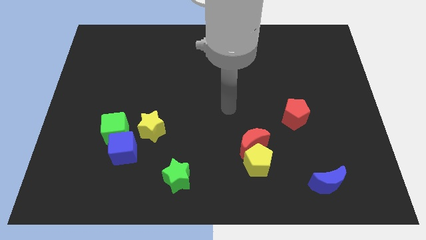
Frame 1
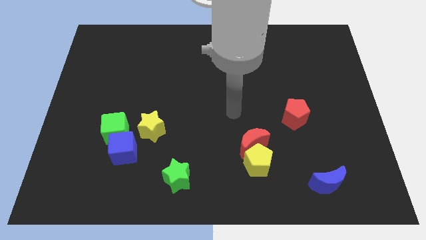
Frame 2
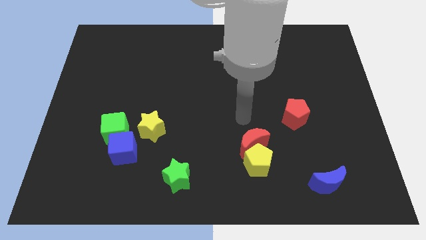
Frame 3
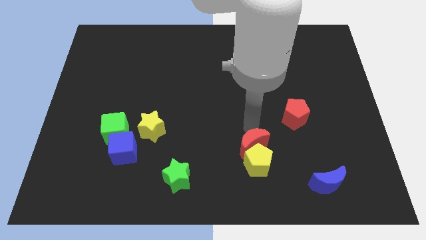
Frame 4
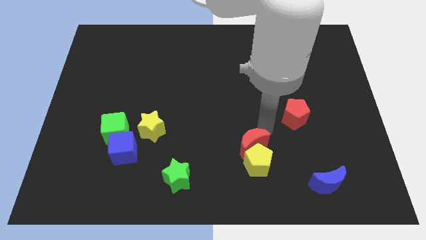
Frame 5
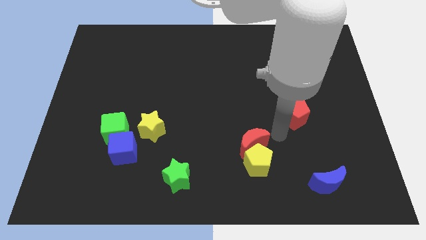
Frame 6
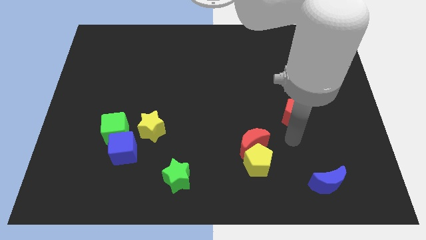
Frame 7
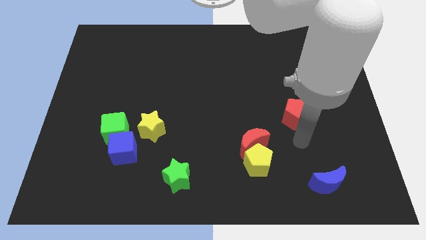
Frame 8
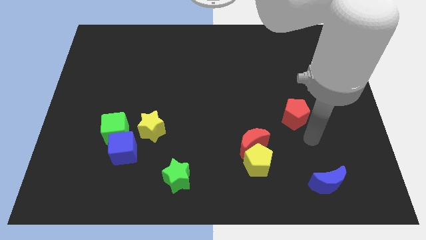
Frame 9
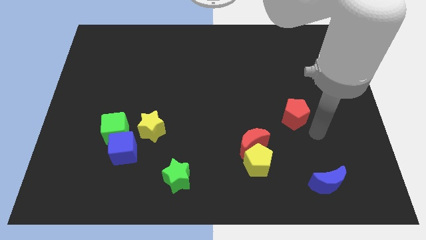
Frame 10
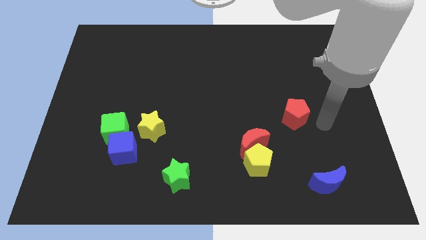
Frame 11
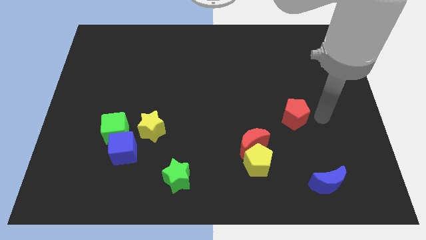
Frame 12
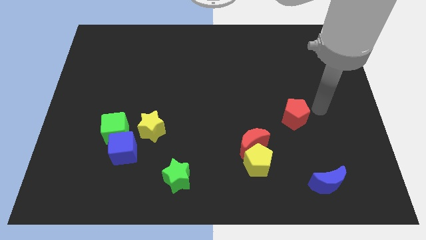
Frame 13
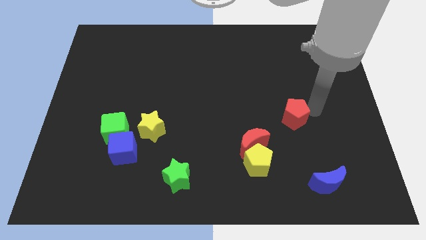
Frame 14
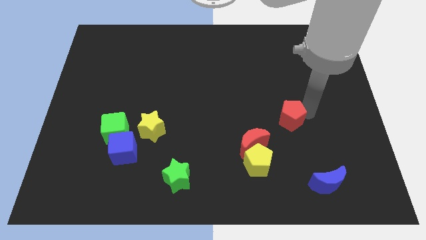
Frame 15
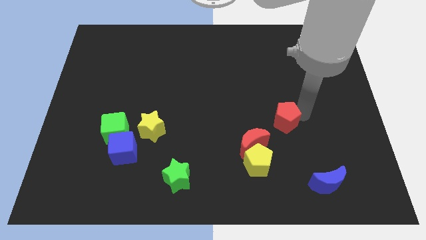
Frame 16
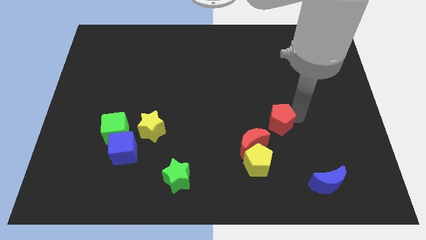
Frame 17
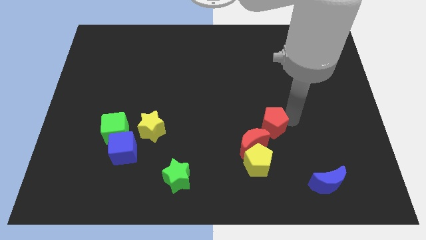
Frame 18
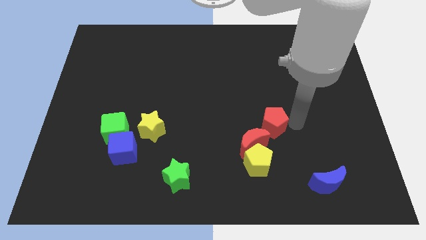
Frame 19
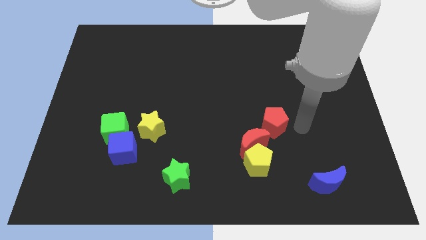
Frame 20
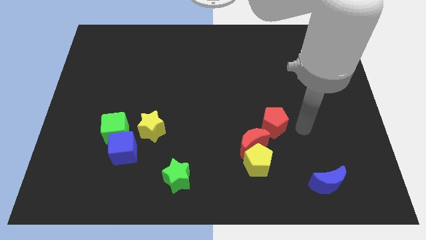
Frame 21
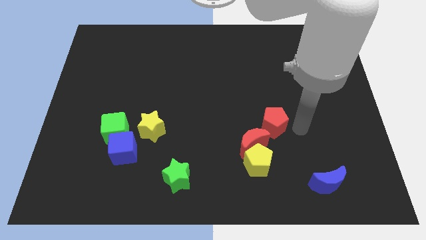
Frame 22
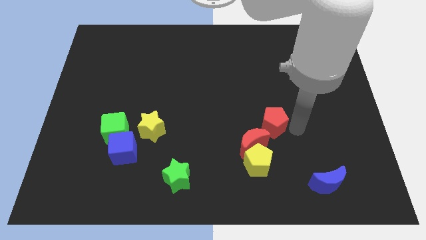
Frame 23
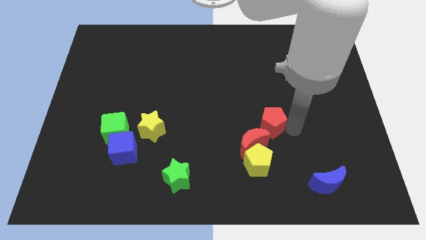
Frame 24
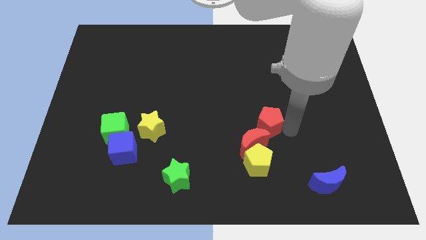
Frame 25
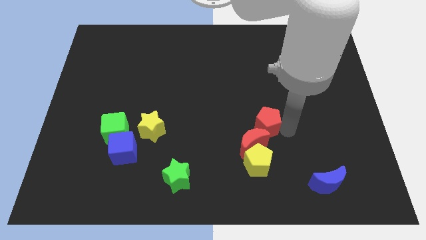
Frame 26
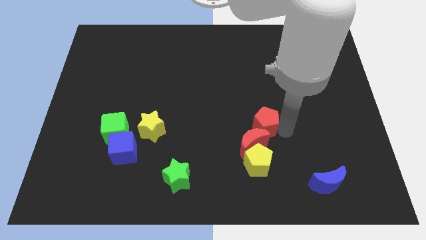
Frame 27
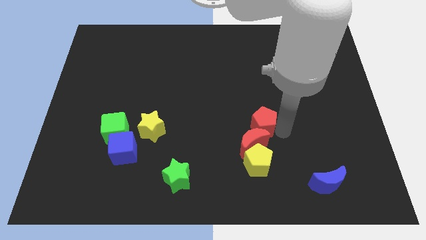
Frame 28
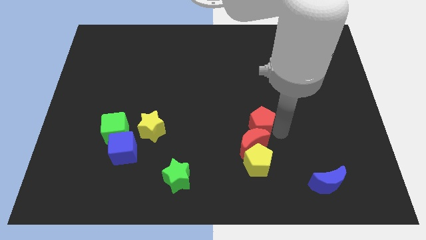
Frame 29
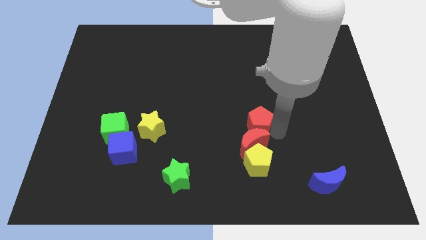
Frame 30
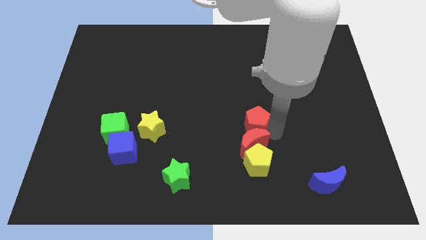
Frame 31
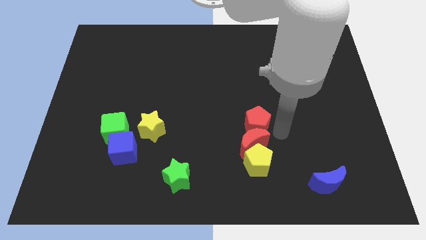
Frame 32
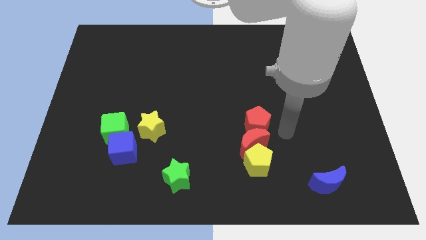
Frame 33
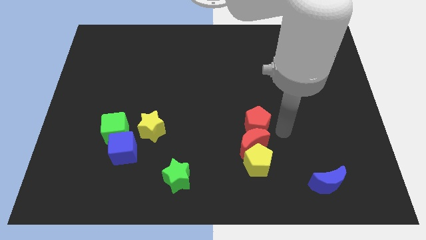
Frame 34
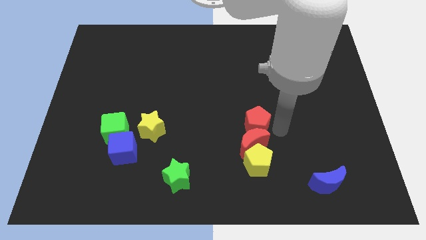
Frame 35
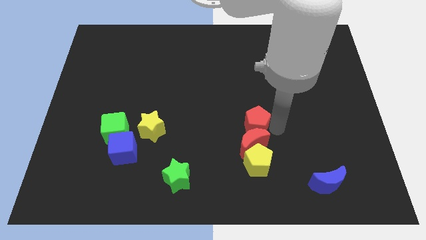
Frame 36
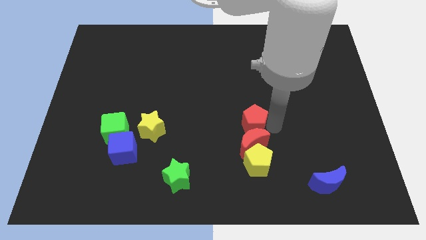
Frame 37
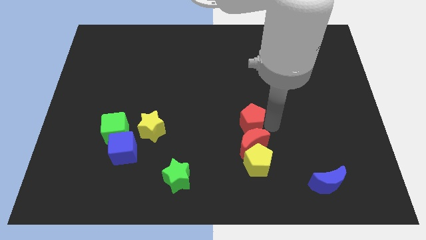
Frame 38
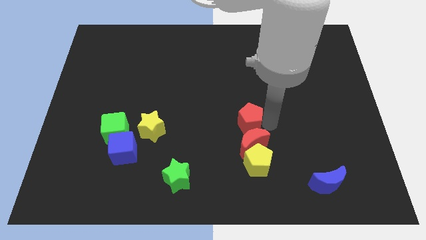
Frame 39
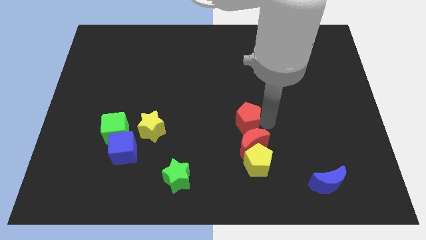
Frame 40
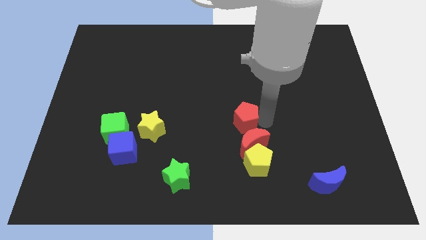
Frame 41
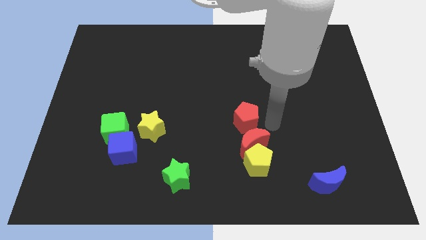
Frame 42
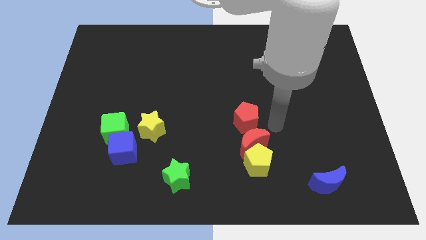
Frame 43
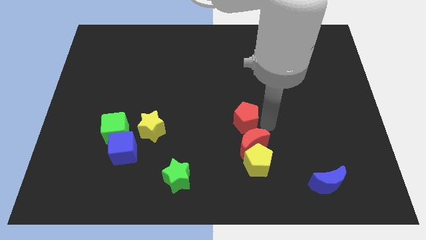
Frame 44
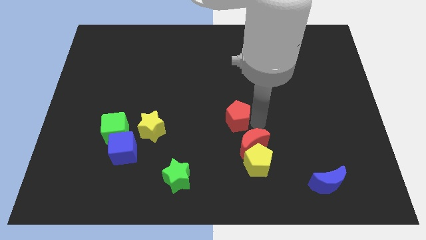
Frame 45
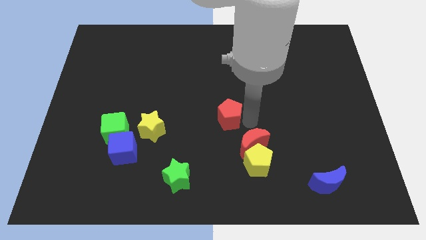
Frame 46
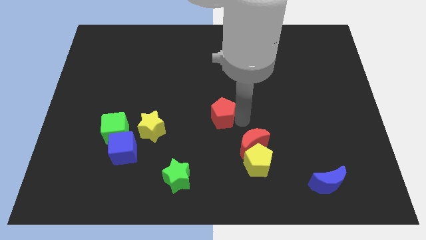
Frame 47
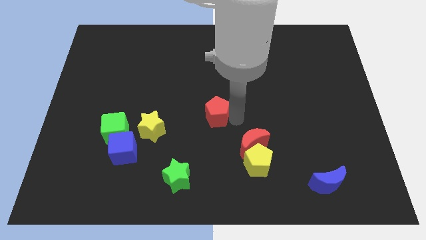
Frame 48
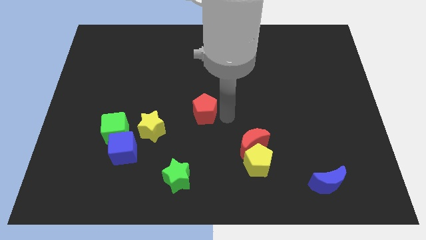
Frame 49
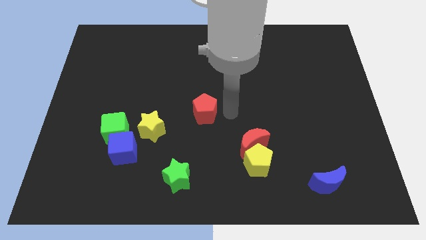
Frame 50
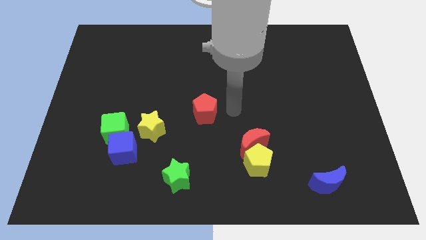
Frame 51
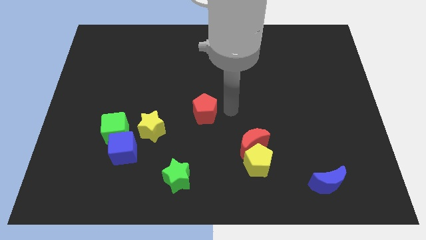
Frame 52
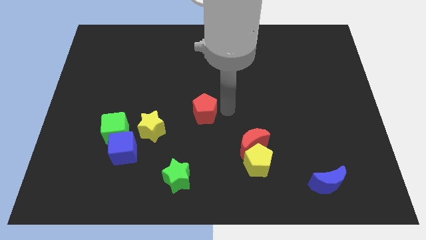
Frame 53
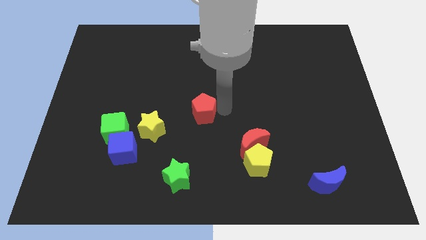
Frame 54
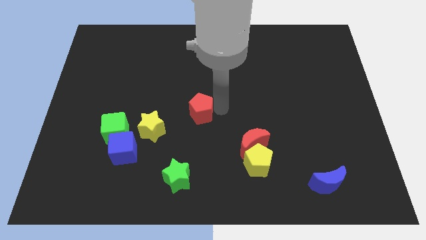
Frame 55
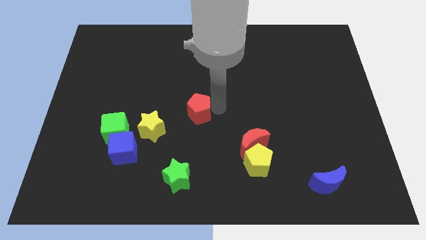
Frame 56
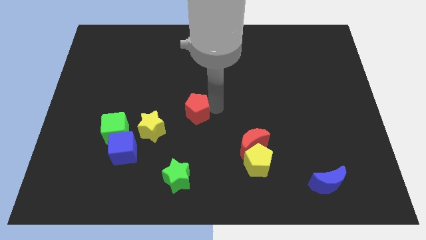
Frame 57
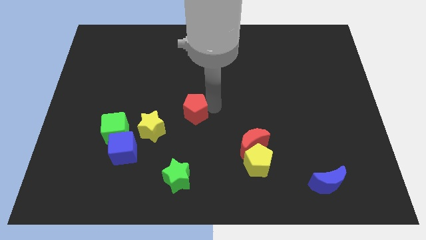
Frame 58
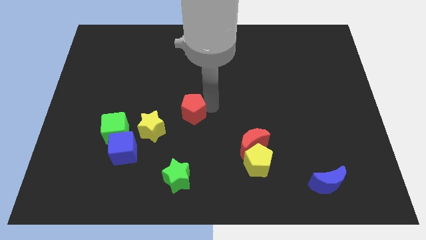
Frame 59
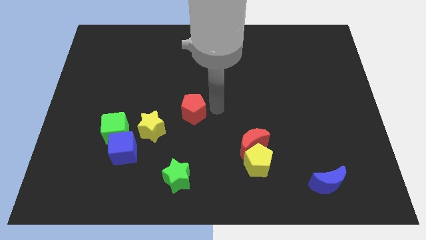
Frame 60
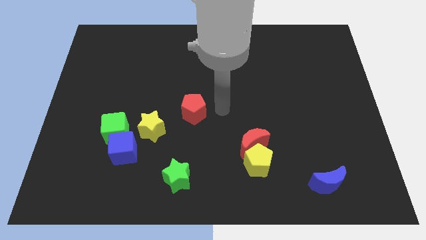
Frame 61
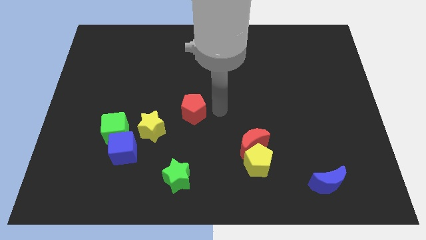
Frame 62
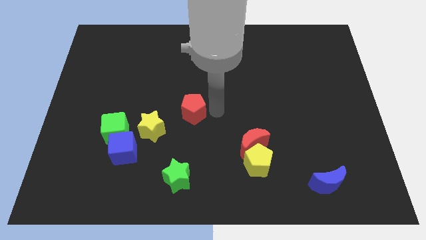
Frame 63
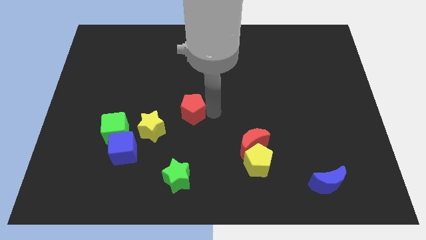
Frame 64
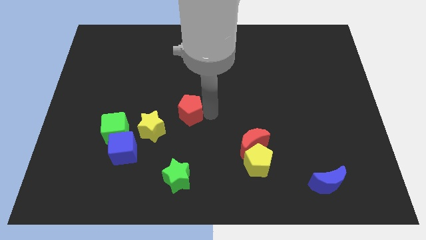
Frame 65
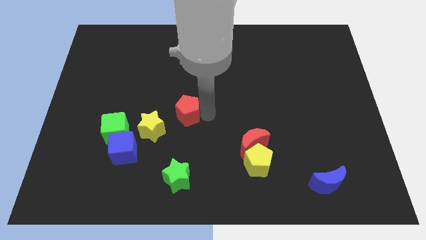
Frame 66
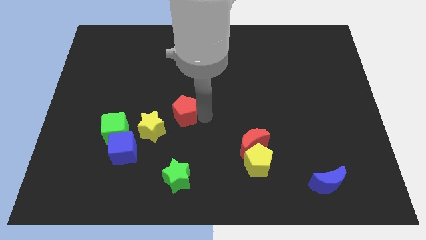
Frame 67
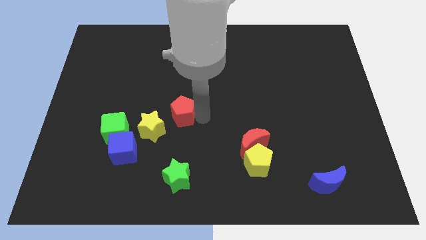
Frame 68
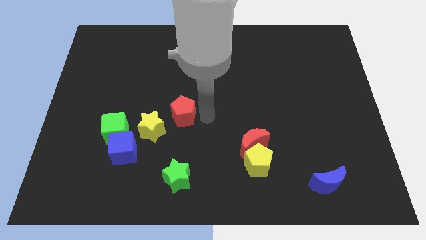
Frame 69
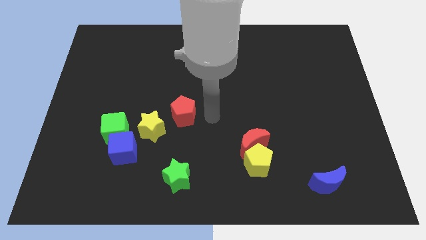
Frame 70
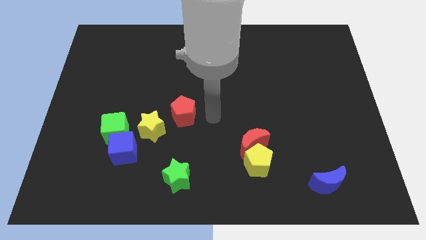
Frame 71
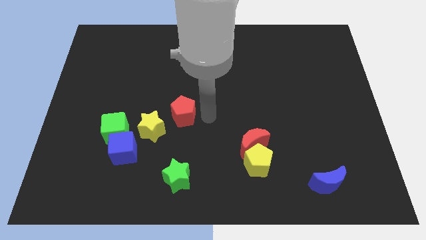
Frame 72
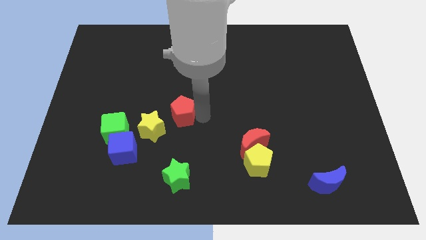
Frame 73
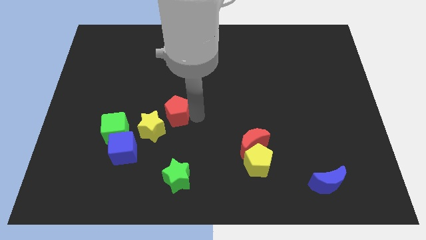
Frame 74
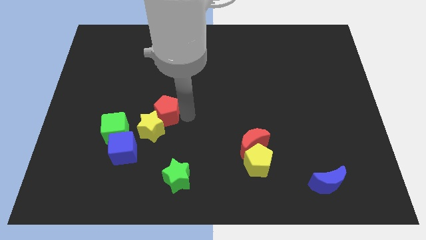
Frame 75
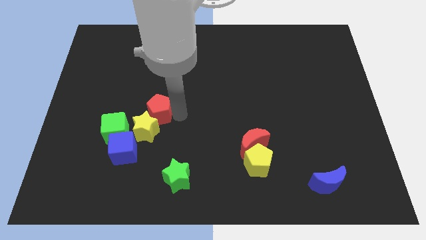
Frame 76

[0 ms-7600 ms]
slide the red pentagon diagonally up and to the right of the green cube

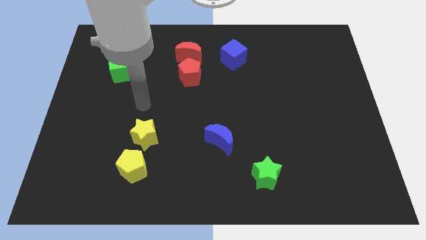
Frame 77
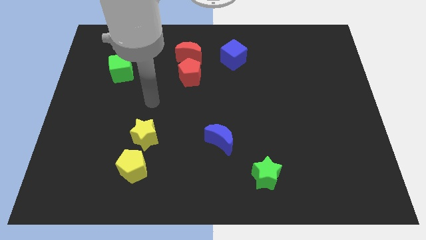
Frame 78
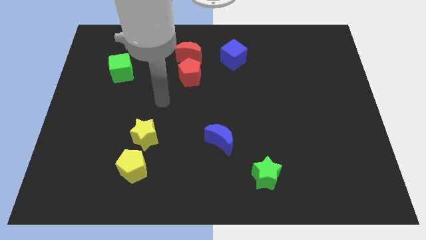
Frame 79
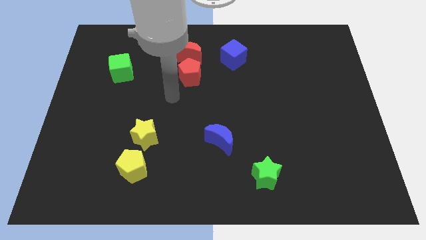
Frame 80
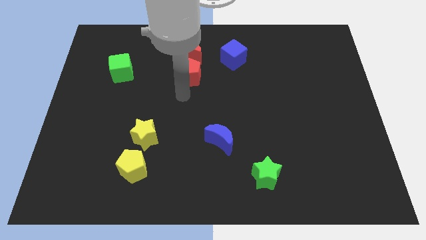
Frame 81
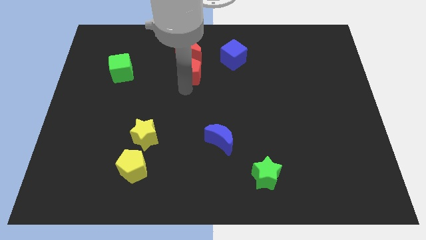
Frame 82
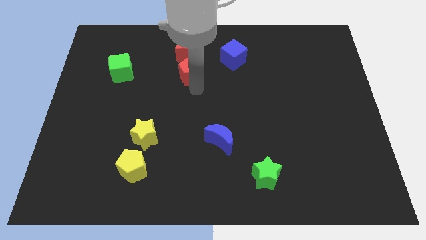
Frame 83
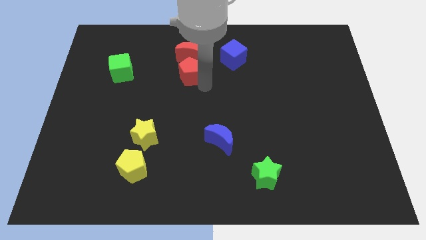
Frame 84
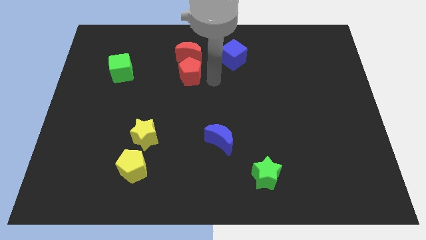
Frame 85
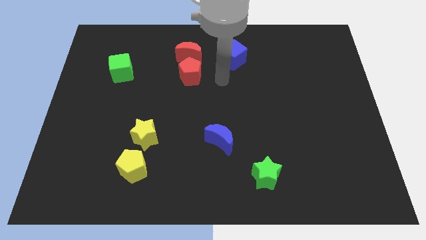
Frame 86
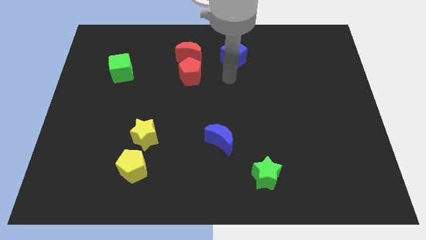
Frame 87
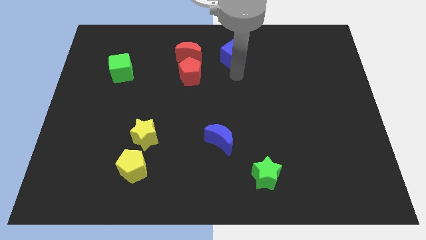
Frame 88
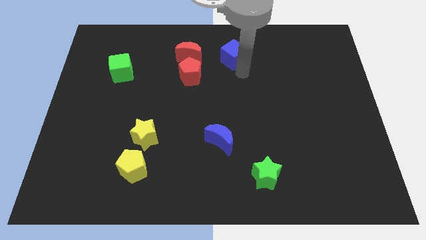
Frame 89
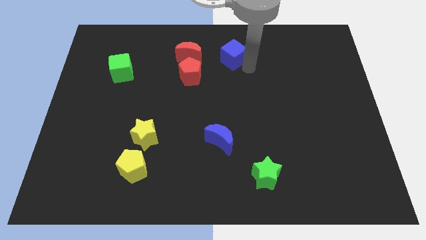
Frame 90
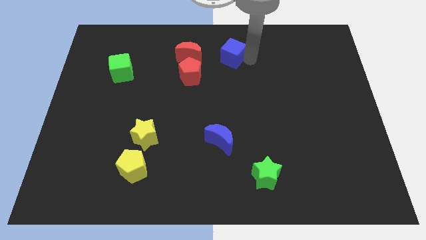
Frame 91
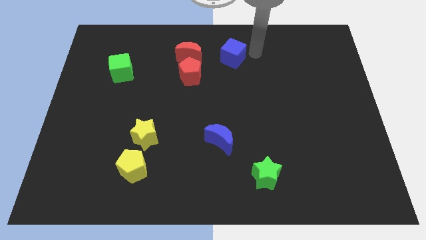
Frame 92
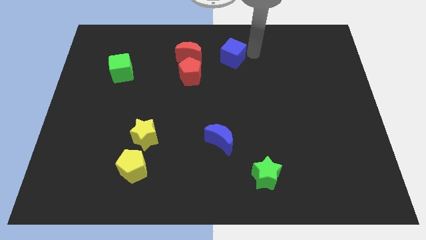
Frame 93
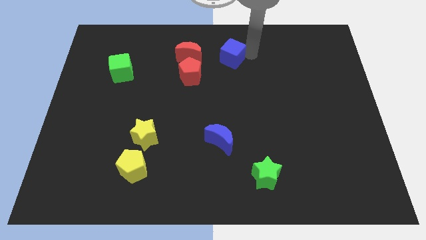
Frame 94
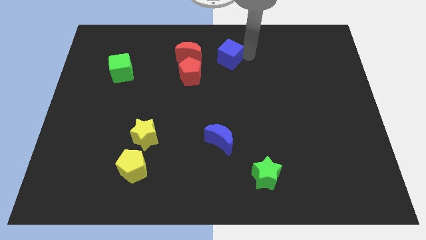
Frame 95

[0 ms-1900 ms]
put the blue cube diagonally up and to the right of the red pentagon
